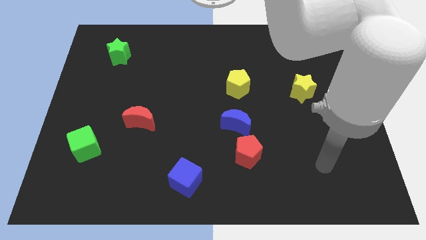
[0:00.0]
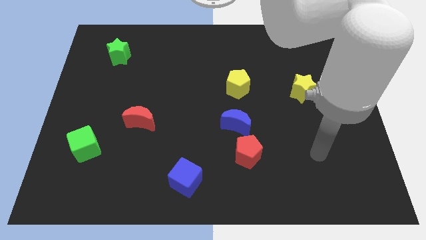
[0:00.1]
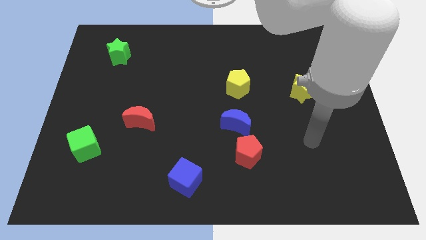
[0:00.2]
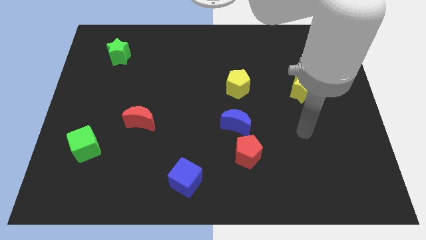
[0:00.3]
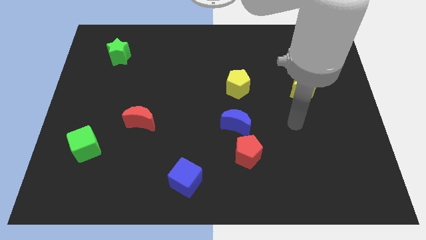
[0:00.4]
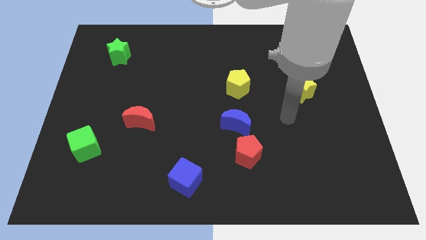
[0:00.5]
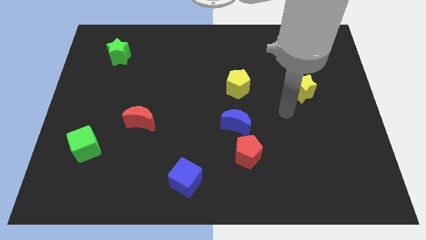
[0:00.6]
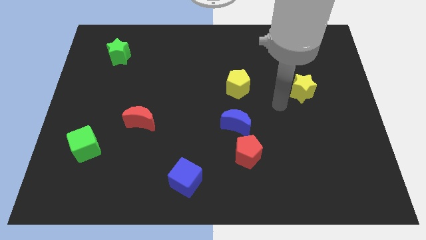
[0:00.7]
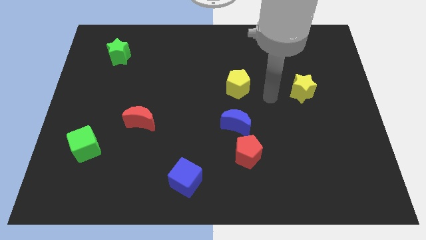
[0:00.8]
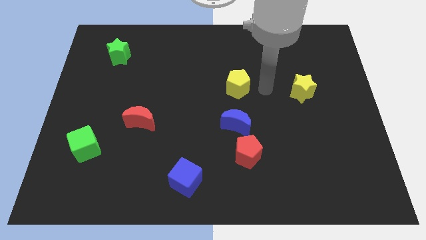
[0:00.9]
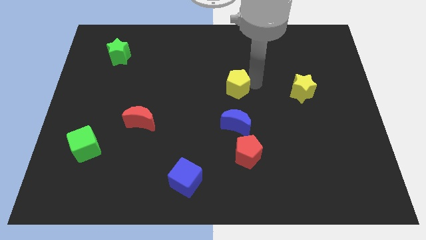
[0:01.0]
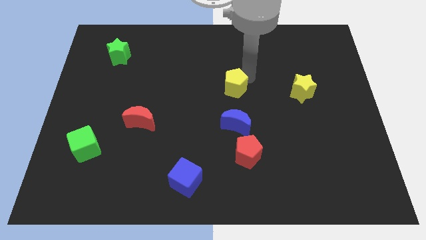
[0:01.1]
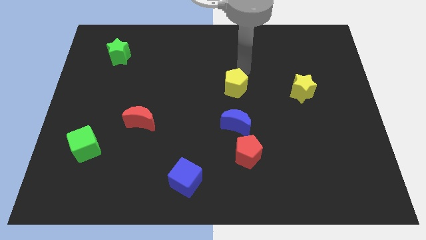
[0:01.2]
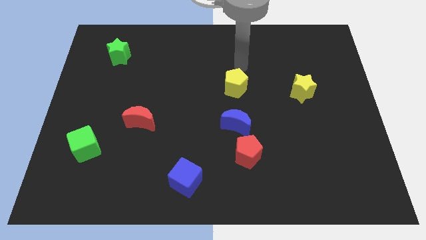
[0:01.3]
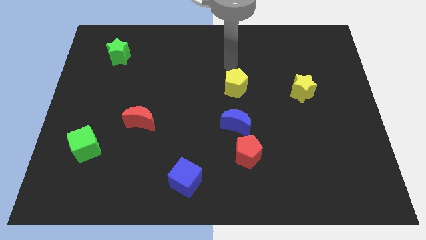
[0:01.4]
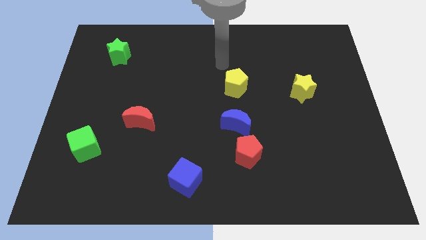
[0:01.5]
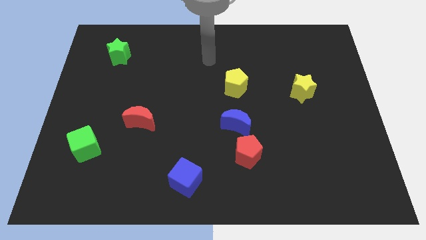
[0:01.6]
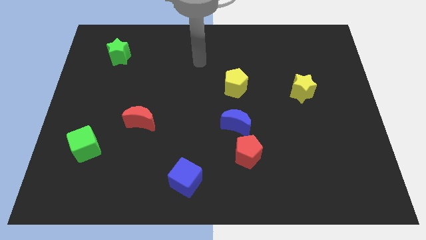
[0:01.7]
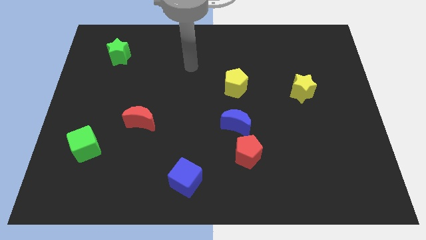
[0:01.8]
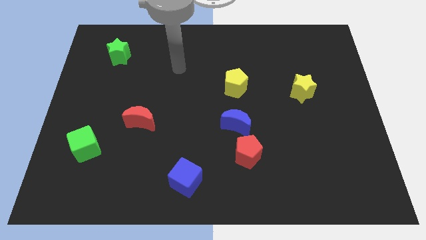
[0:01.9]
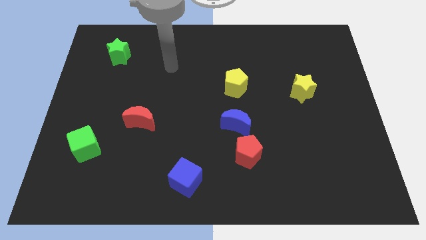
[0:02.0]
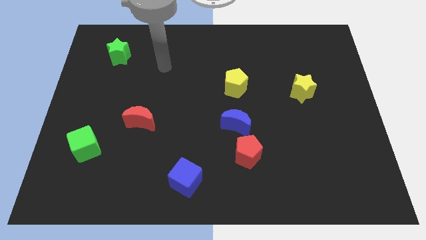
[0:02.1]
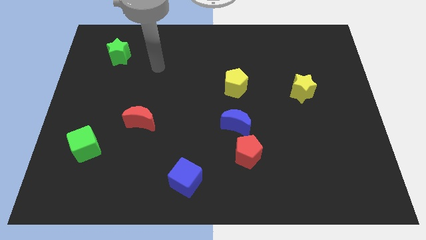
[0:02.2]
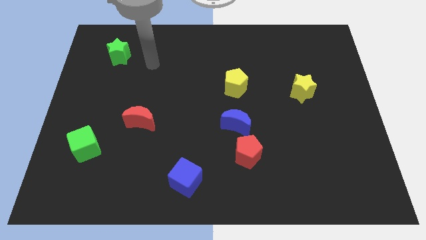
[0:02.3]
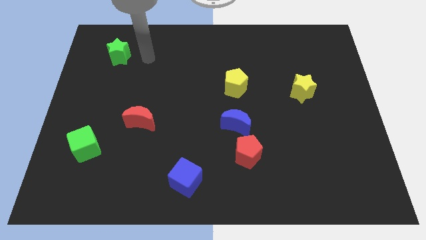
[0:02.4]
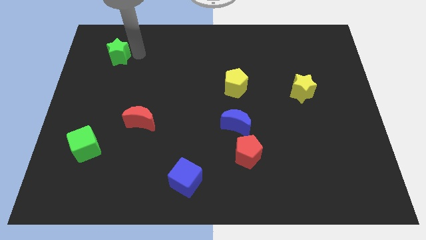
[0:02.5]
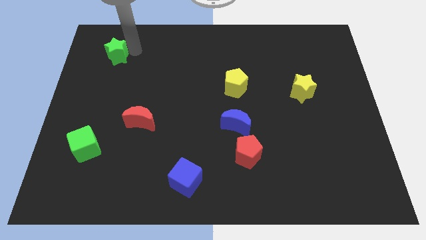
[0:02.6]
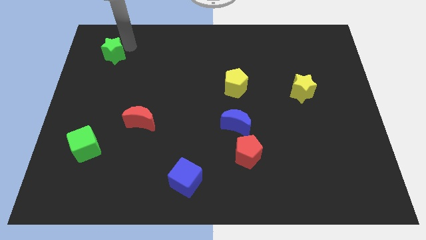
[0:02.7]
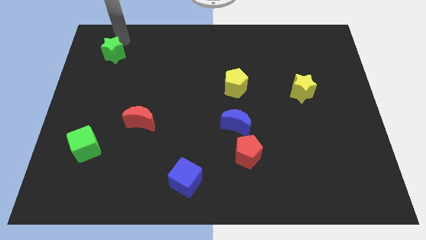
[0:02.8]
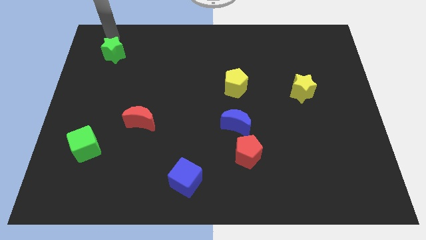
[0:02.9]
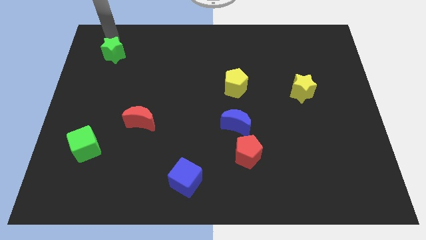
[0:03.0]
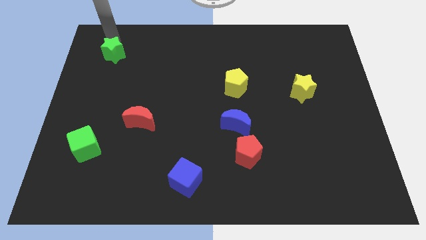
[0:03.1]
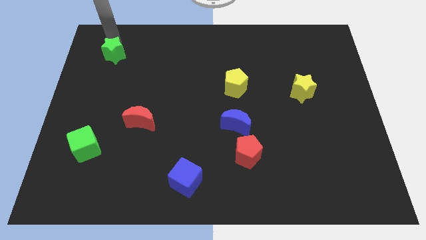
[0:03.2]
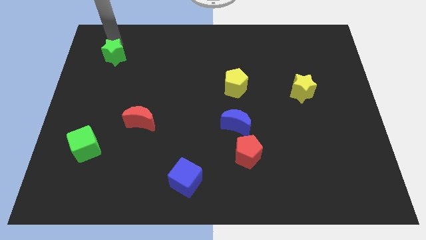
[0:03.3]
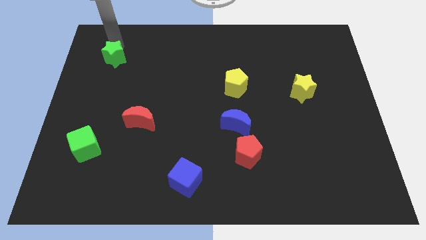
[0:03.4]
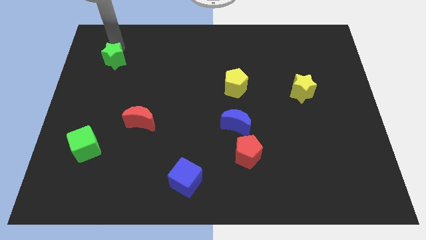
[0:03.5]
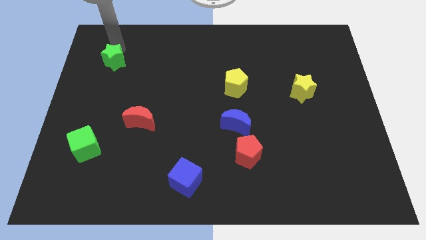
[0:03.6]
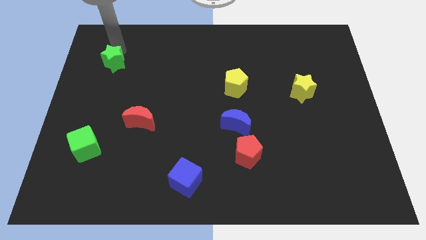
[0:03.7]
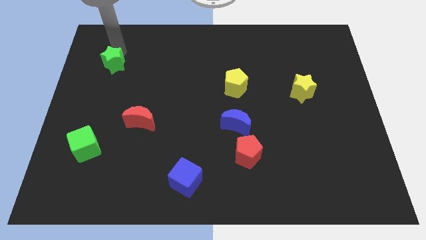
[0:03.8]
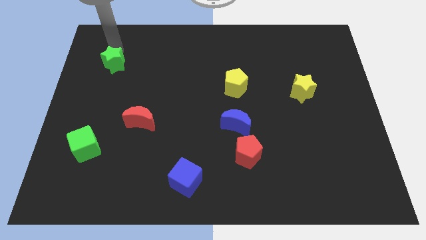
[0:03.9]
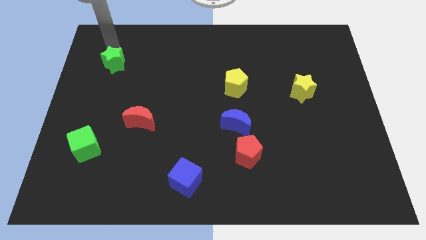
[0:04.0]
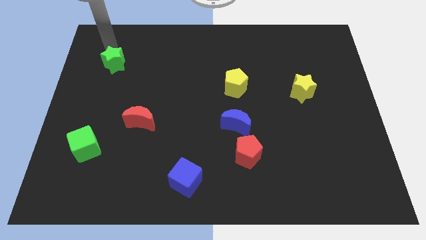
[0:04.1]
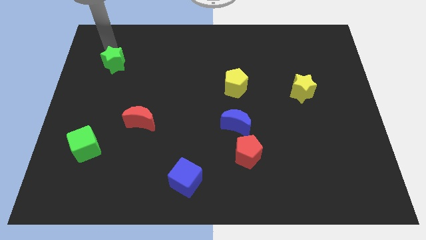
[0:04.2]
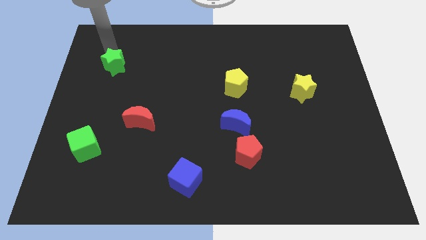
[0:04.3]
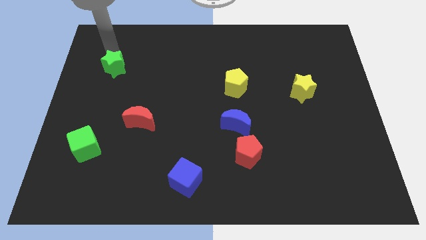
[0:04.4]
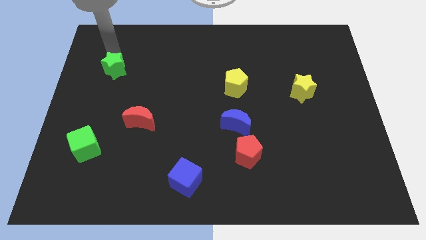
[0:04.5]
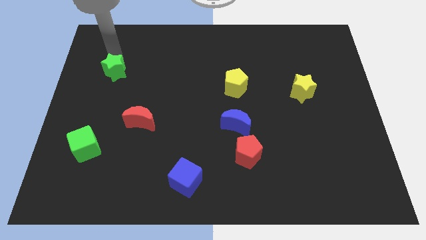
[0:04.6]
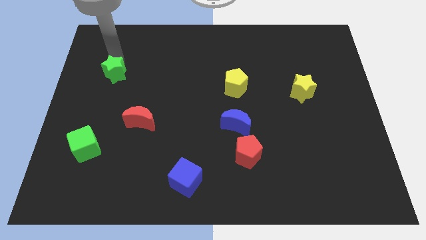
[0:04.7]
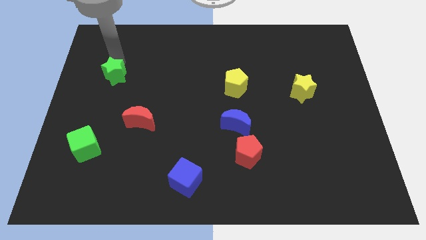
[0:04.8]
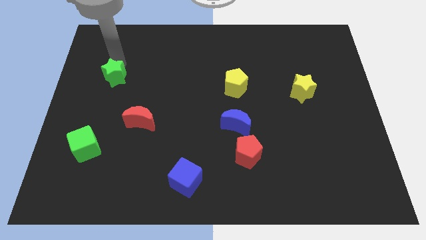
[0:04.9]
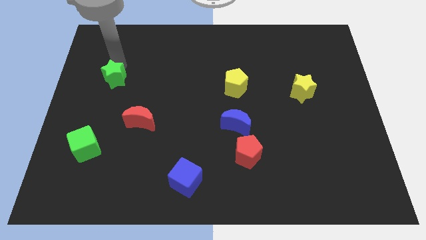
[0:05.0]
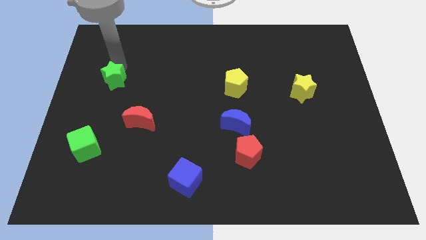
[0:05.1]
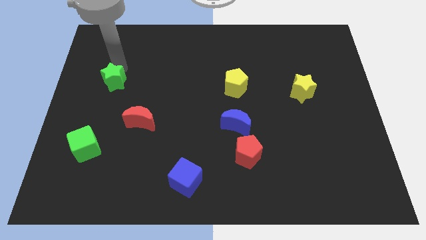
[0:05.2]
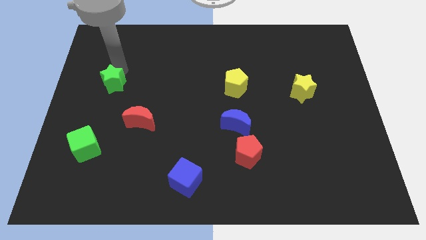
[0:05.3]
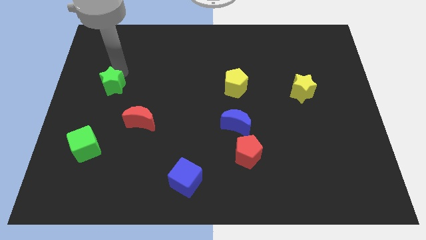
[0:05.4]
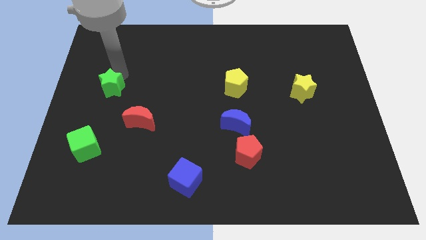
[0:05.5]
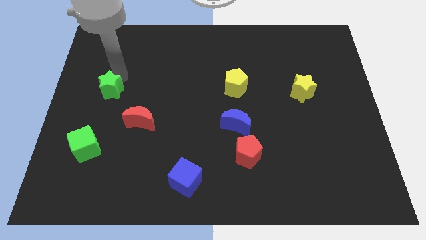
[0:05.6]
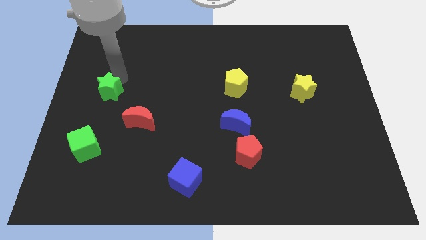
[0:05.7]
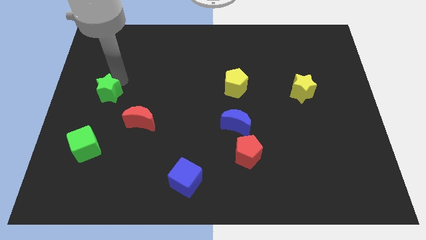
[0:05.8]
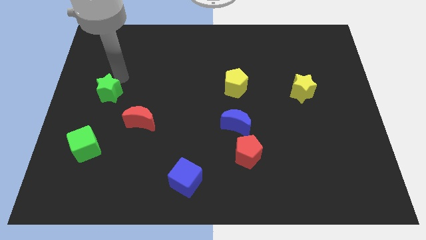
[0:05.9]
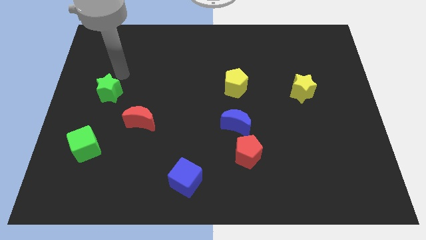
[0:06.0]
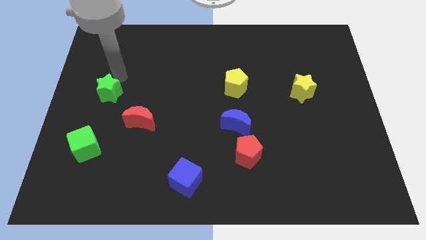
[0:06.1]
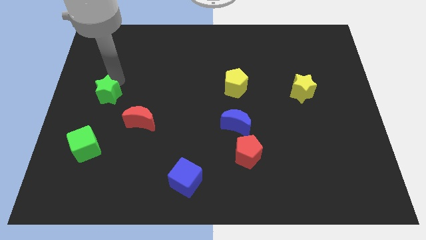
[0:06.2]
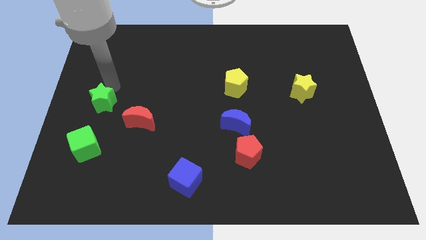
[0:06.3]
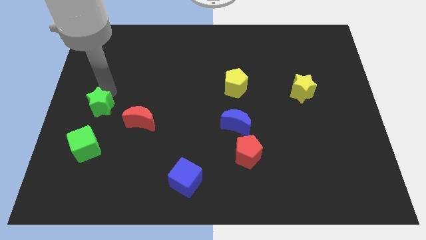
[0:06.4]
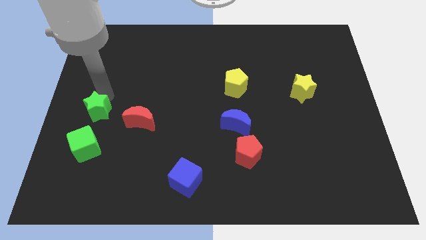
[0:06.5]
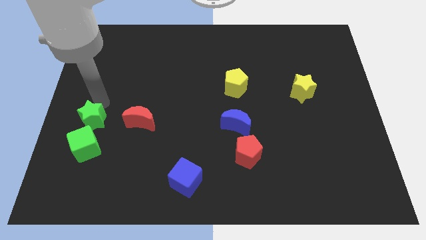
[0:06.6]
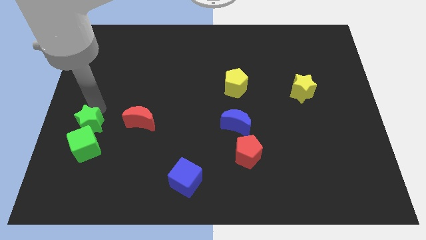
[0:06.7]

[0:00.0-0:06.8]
move the green star next to the green cube

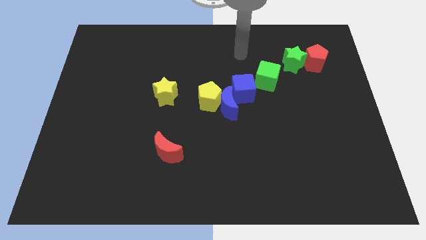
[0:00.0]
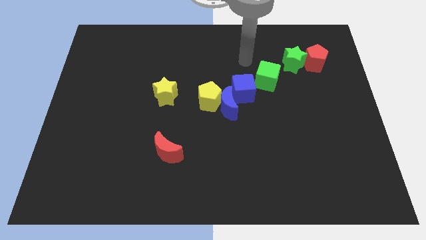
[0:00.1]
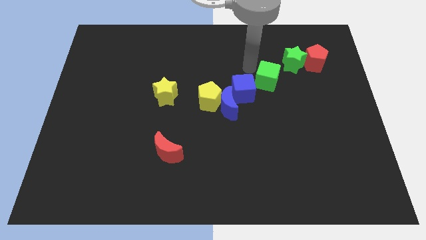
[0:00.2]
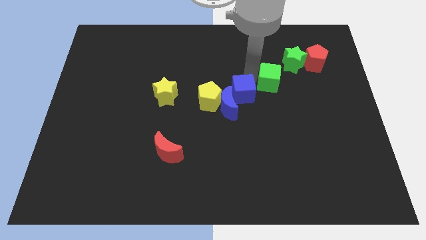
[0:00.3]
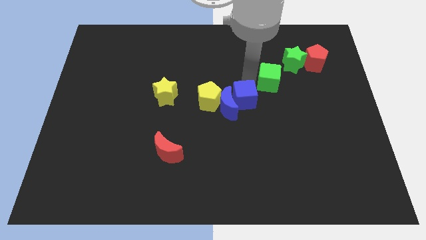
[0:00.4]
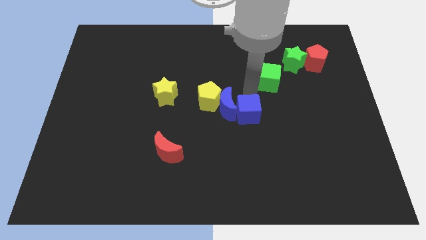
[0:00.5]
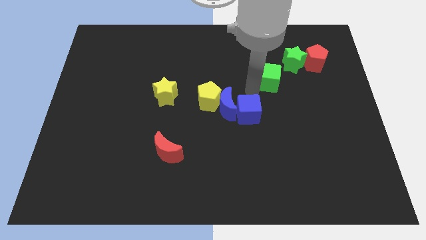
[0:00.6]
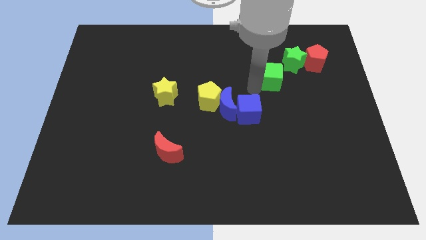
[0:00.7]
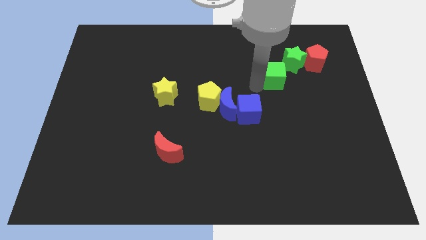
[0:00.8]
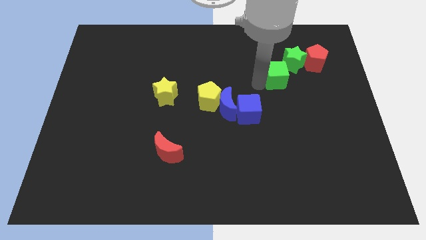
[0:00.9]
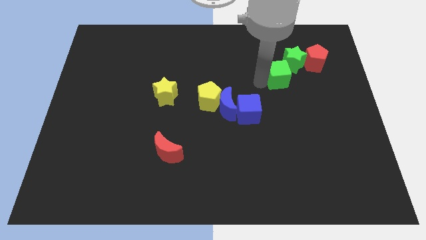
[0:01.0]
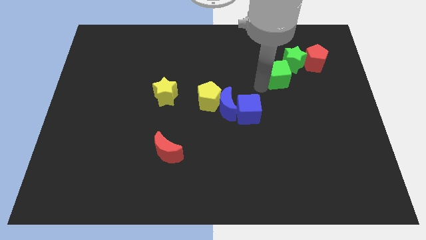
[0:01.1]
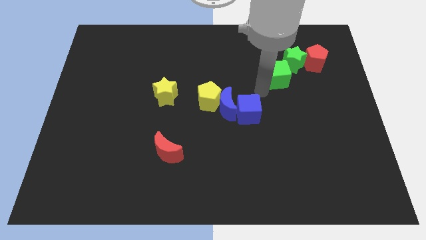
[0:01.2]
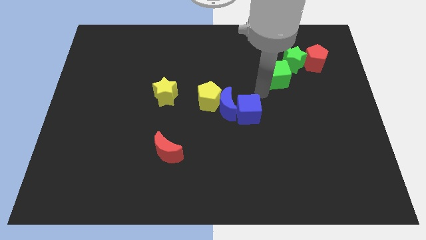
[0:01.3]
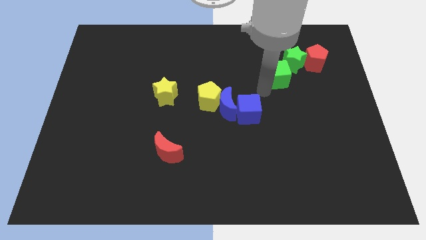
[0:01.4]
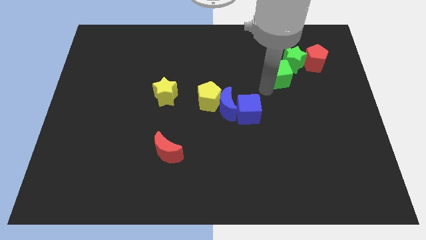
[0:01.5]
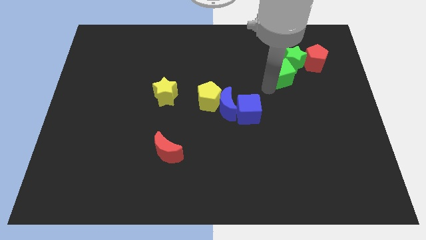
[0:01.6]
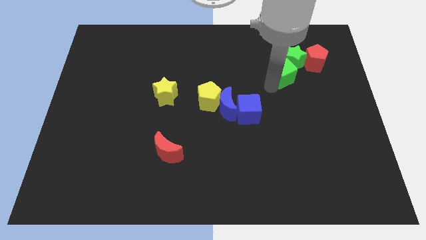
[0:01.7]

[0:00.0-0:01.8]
slide the green cube to the green star
